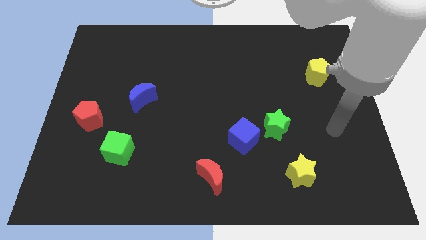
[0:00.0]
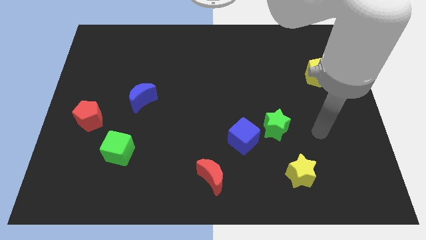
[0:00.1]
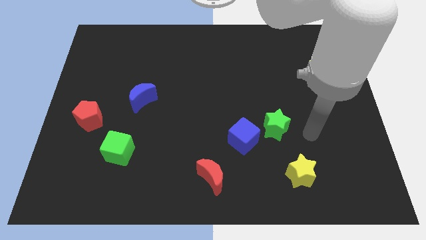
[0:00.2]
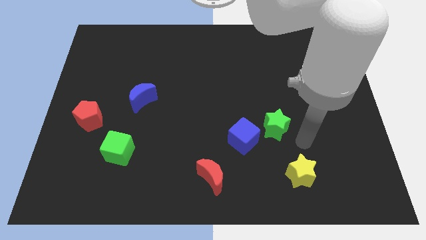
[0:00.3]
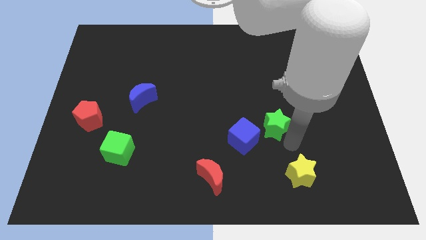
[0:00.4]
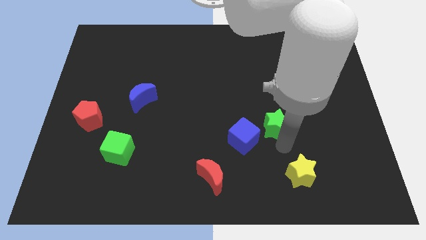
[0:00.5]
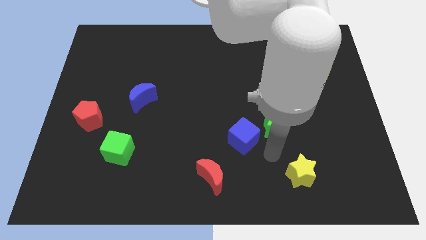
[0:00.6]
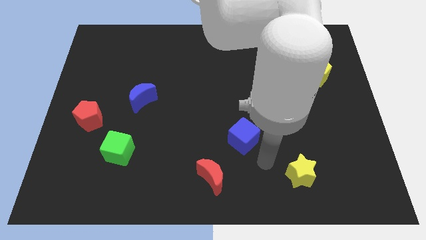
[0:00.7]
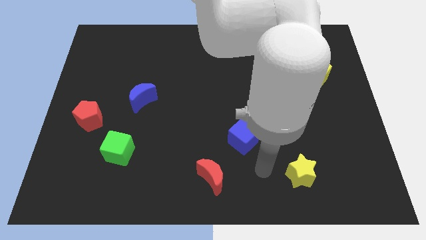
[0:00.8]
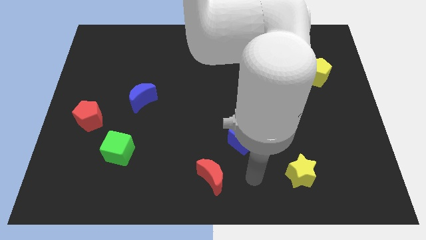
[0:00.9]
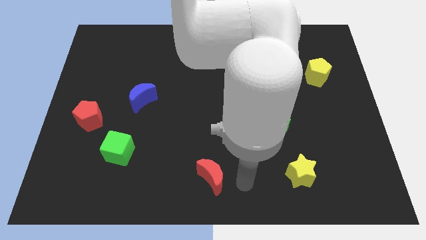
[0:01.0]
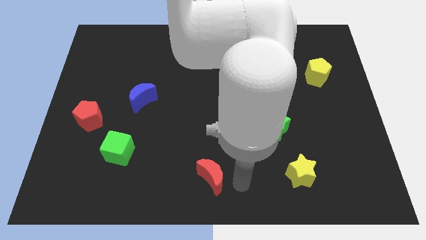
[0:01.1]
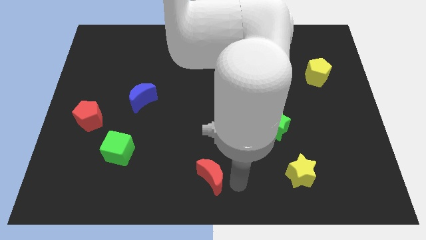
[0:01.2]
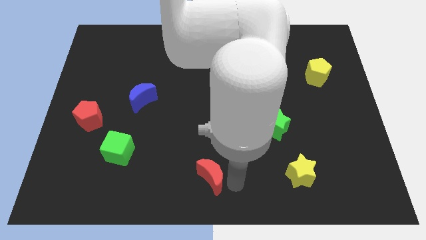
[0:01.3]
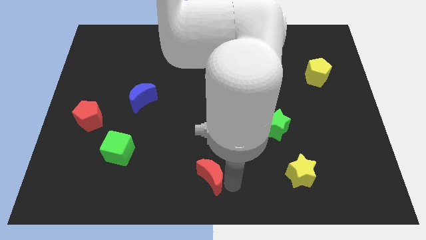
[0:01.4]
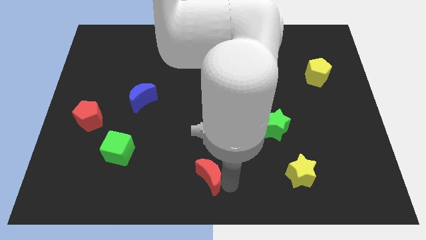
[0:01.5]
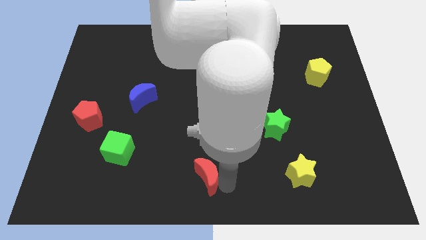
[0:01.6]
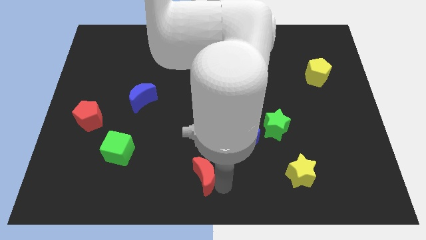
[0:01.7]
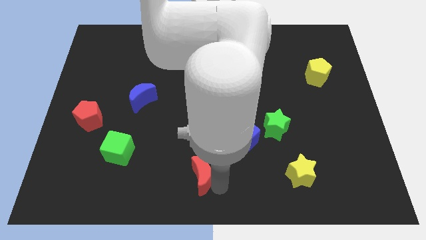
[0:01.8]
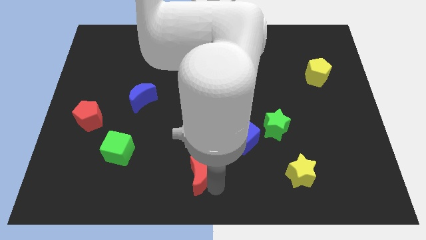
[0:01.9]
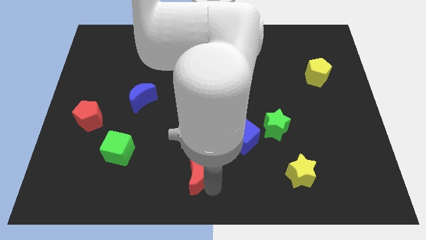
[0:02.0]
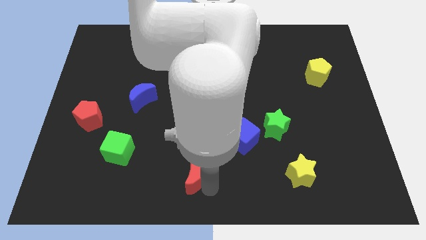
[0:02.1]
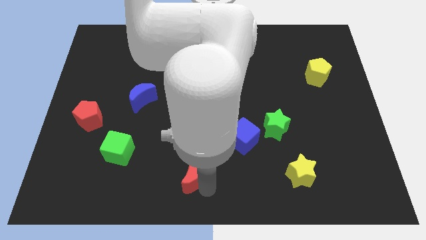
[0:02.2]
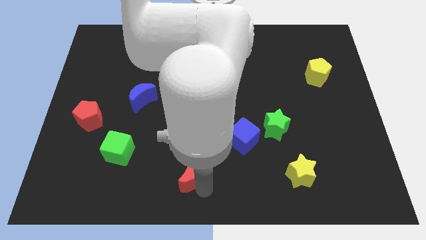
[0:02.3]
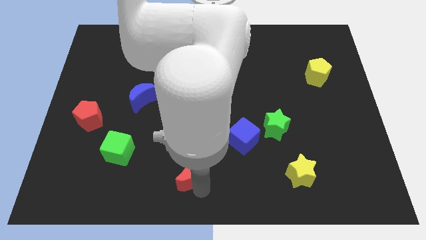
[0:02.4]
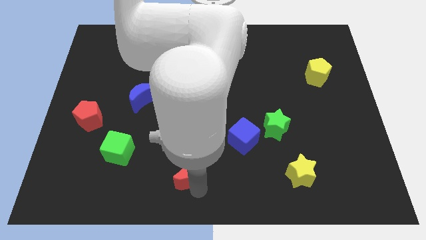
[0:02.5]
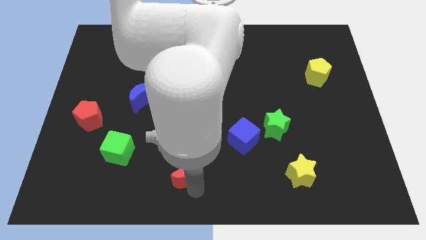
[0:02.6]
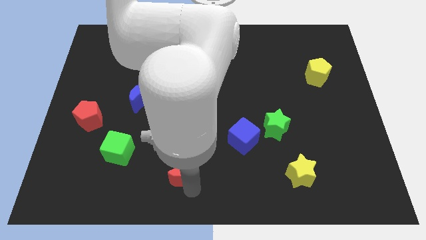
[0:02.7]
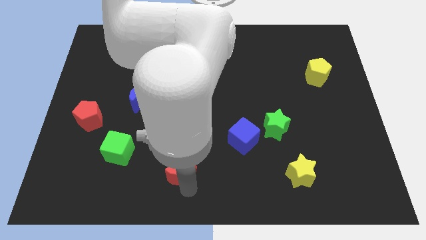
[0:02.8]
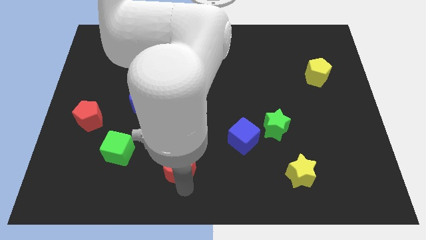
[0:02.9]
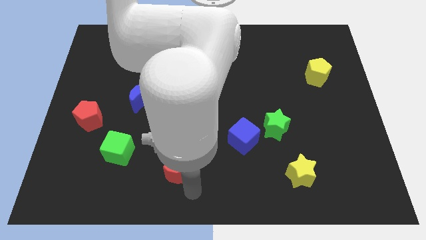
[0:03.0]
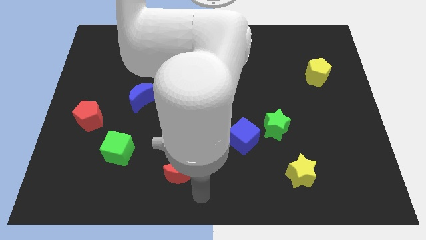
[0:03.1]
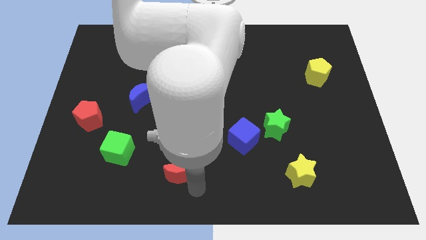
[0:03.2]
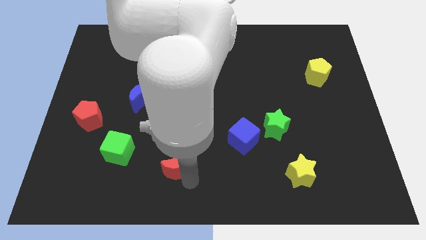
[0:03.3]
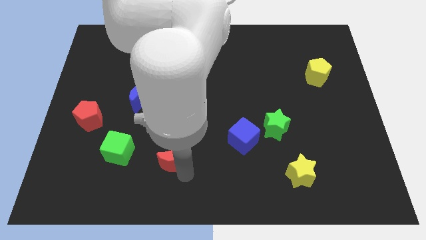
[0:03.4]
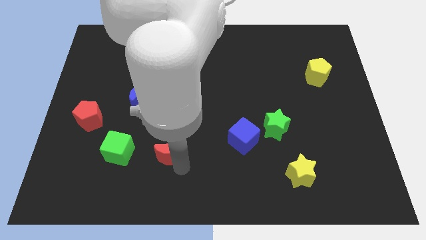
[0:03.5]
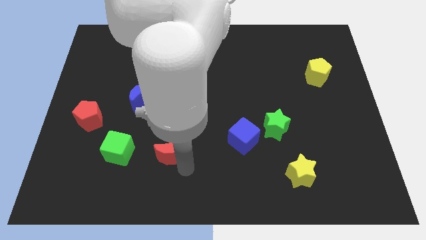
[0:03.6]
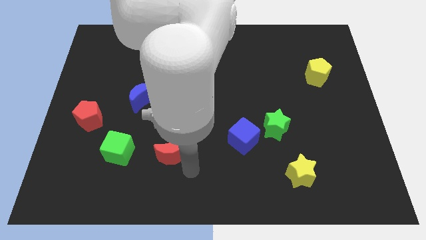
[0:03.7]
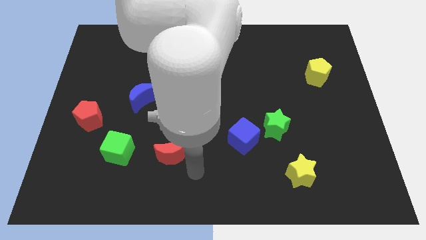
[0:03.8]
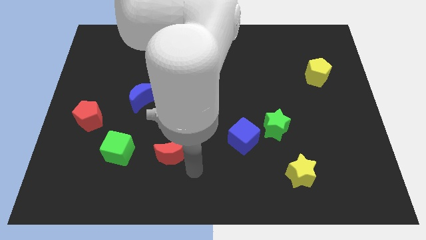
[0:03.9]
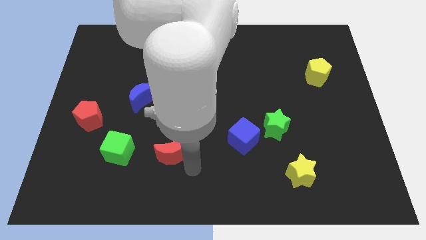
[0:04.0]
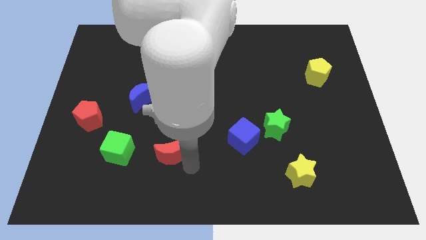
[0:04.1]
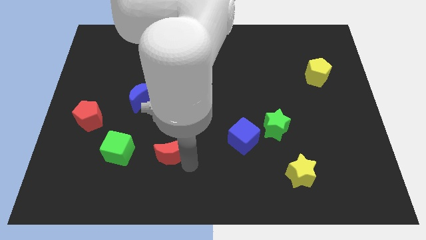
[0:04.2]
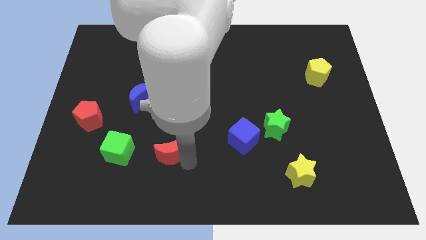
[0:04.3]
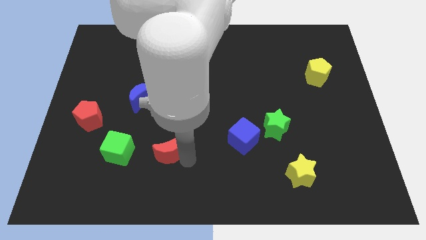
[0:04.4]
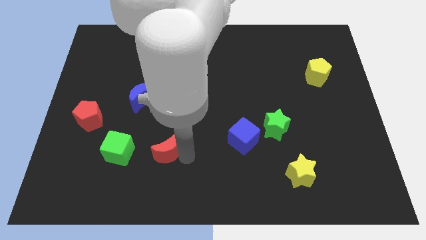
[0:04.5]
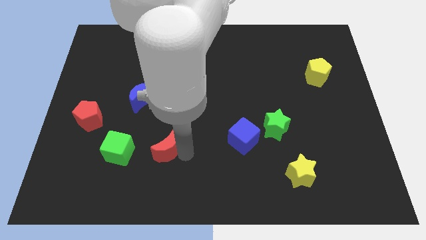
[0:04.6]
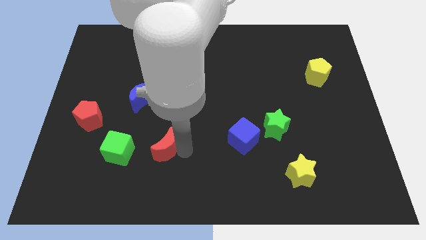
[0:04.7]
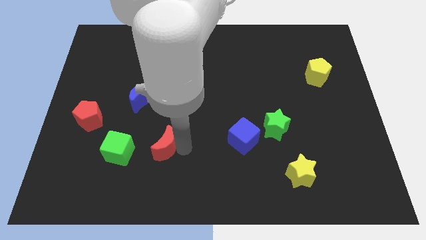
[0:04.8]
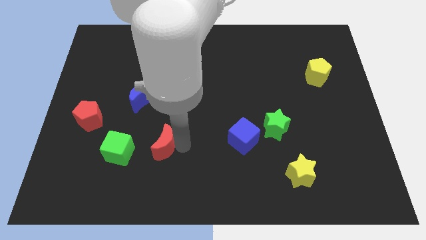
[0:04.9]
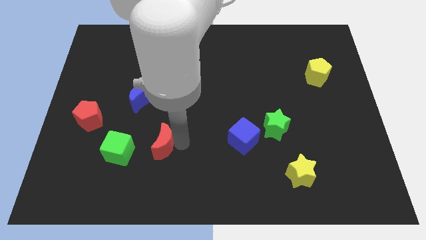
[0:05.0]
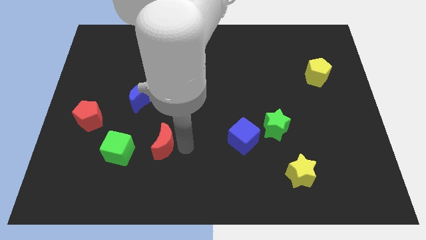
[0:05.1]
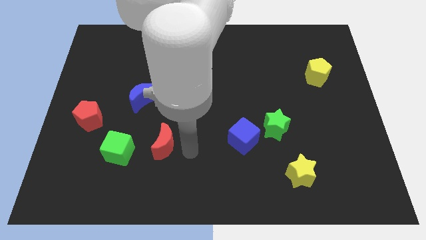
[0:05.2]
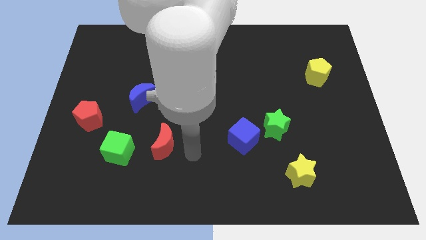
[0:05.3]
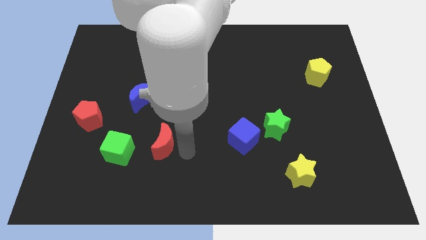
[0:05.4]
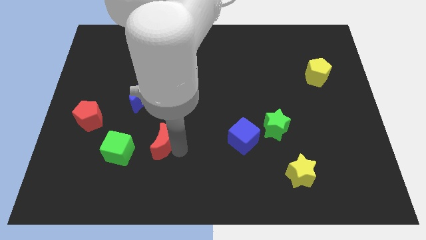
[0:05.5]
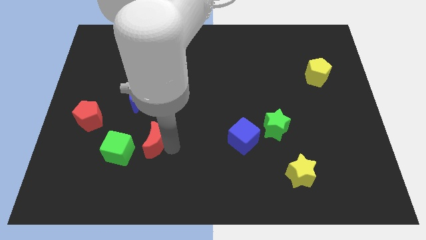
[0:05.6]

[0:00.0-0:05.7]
put the red moon below the blue moon

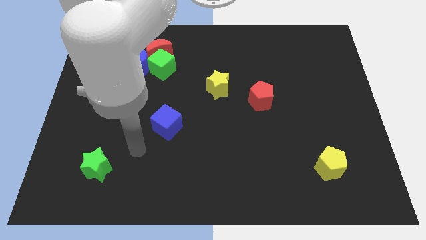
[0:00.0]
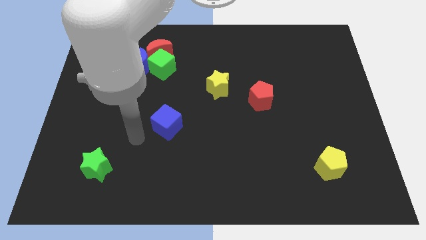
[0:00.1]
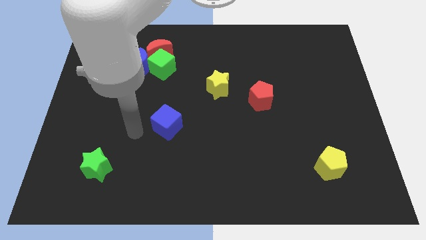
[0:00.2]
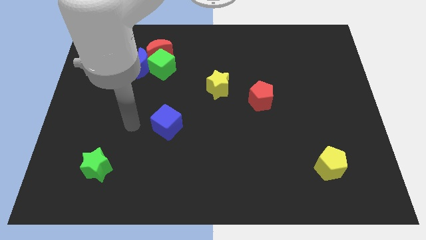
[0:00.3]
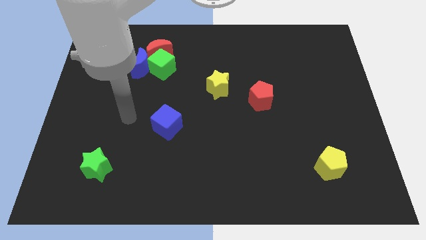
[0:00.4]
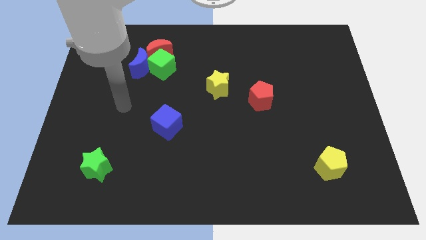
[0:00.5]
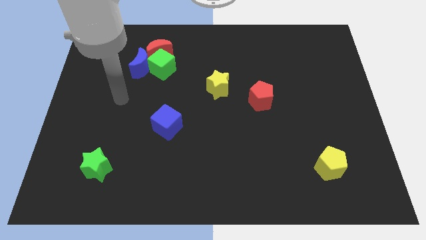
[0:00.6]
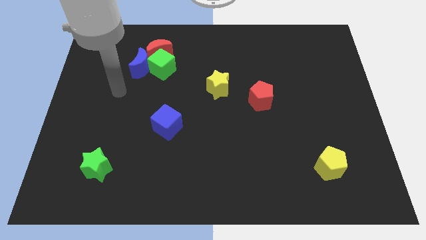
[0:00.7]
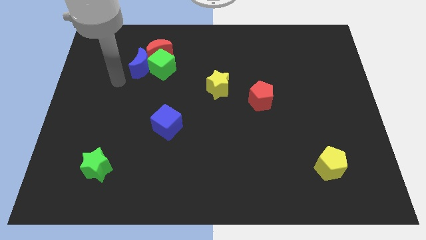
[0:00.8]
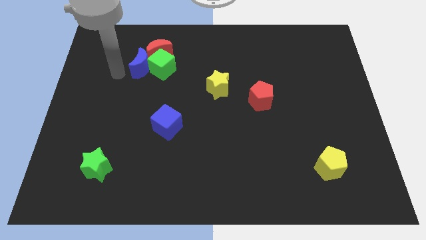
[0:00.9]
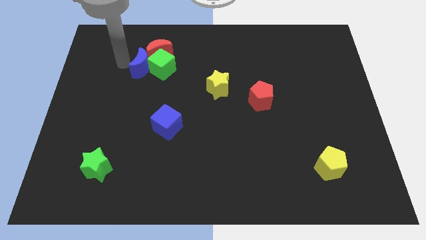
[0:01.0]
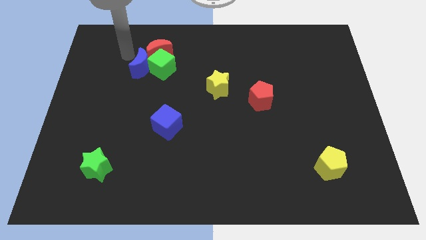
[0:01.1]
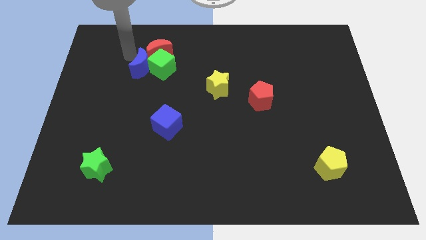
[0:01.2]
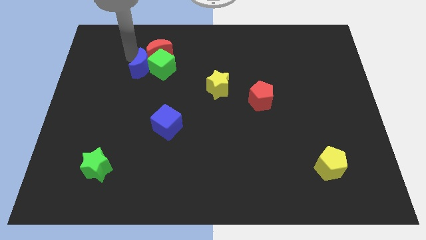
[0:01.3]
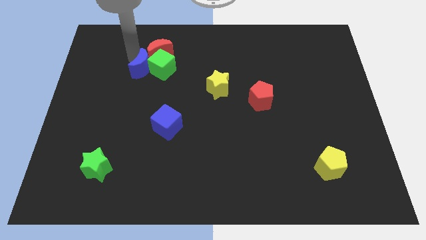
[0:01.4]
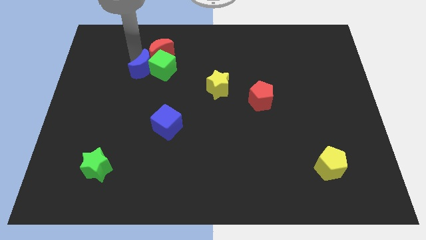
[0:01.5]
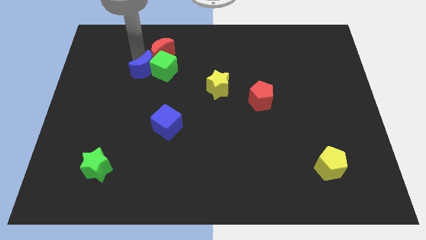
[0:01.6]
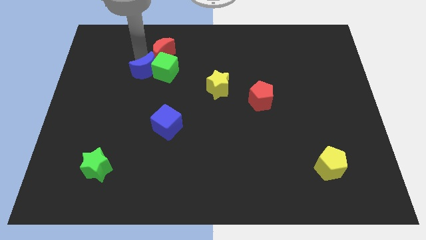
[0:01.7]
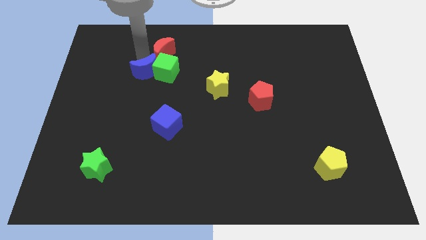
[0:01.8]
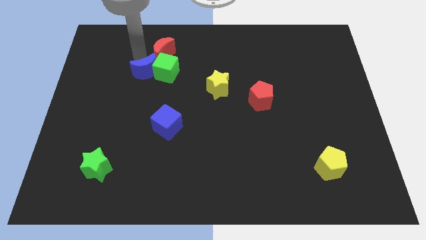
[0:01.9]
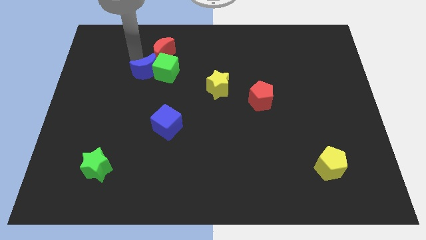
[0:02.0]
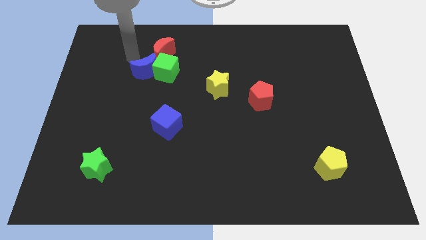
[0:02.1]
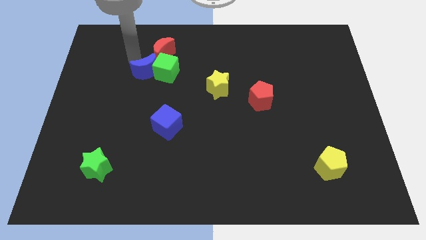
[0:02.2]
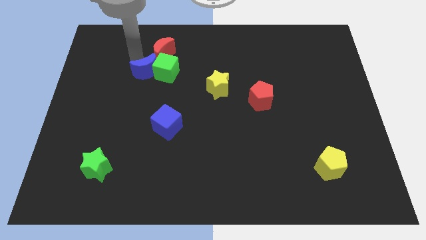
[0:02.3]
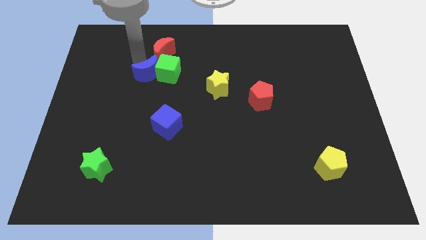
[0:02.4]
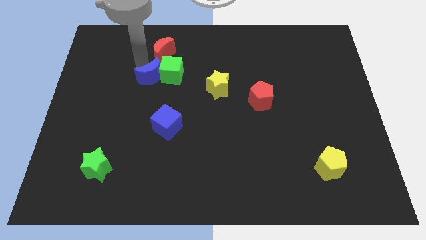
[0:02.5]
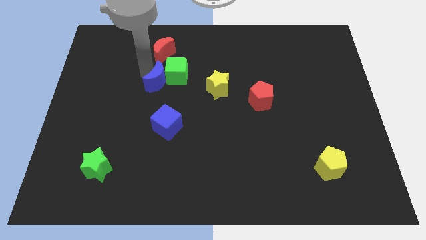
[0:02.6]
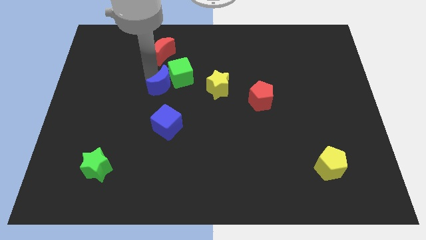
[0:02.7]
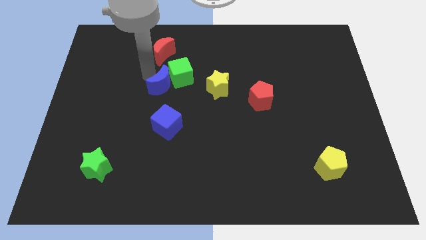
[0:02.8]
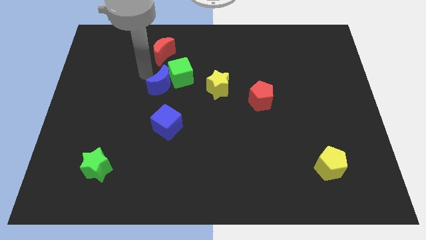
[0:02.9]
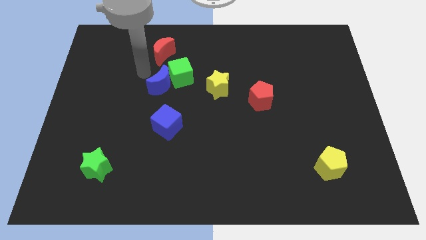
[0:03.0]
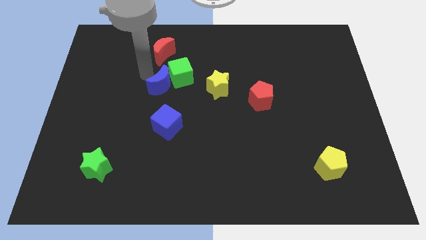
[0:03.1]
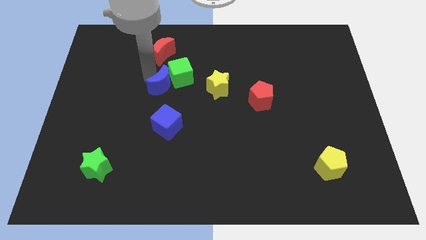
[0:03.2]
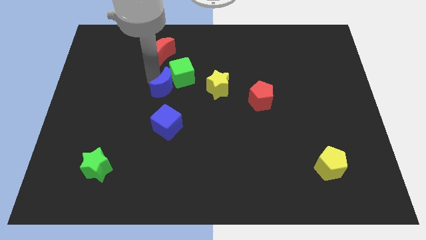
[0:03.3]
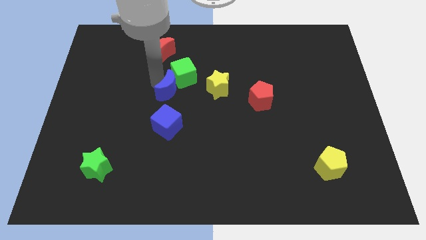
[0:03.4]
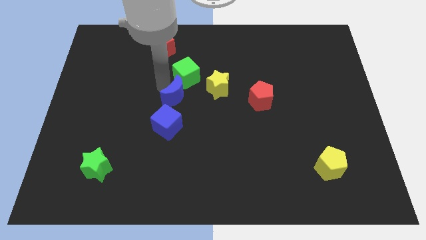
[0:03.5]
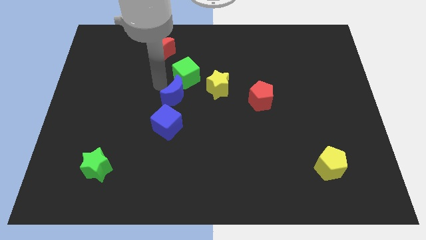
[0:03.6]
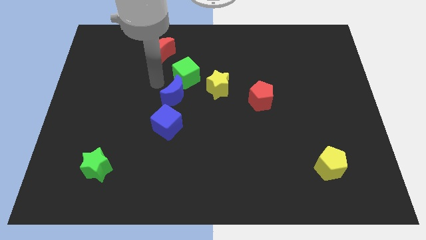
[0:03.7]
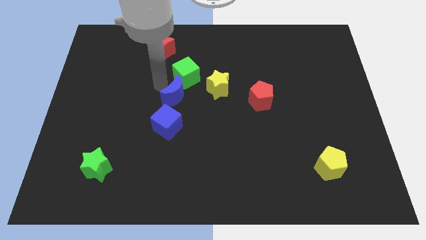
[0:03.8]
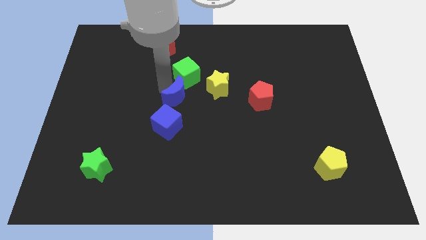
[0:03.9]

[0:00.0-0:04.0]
slide the blue moon to the top right side of the blue cube
